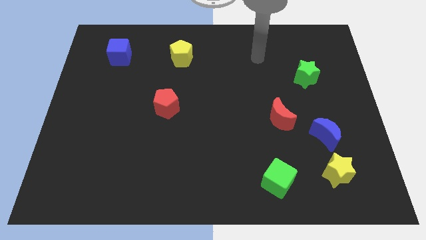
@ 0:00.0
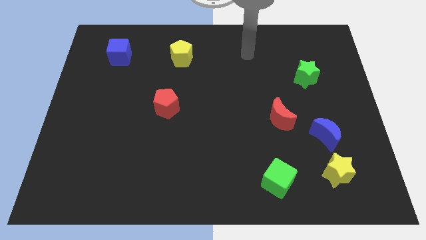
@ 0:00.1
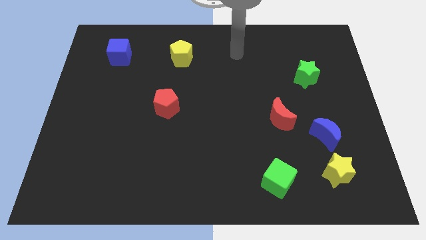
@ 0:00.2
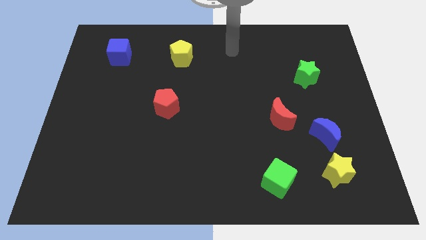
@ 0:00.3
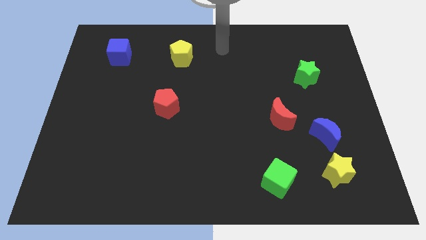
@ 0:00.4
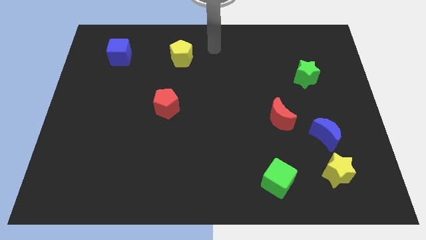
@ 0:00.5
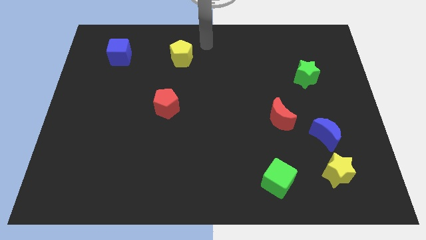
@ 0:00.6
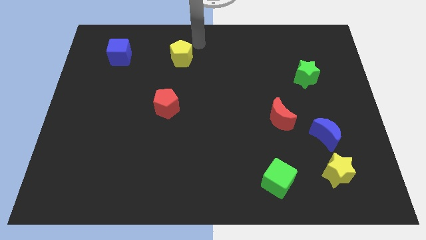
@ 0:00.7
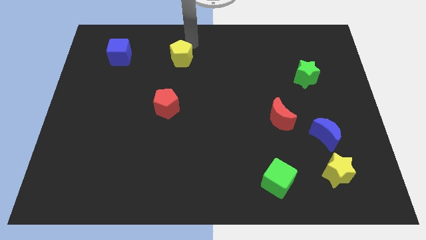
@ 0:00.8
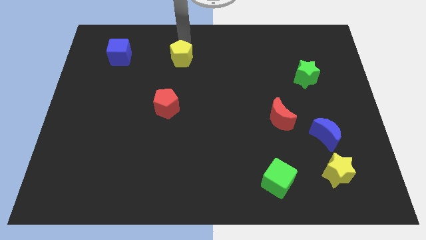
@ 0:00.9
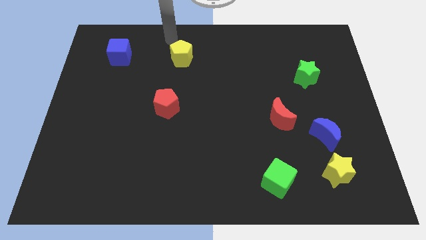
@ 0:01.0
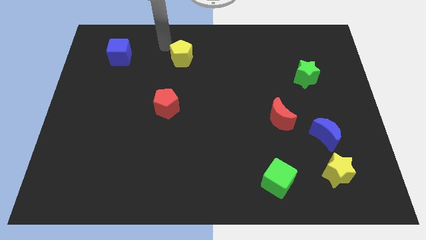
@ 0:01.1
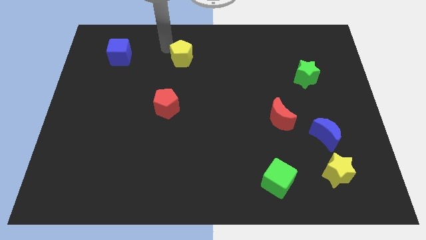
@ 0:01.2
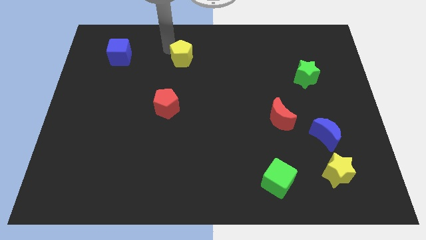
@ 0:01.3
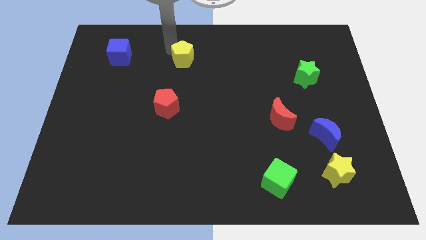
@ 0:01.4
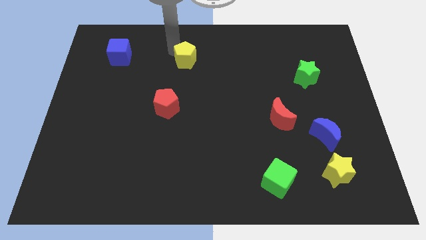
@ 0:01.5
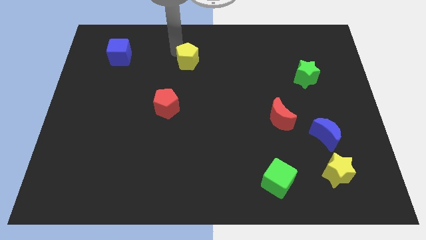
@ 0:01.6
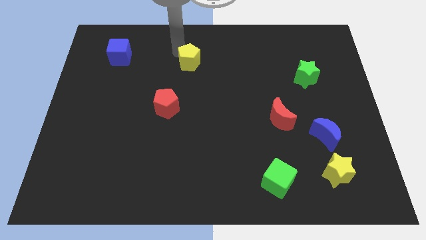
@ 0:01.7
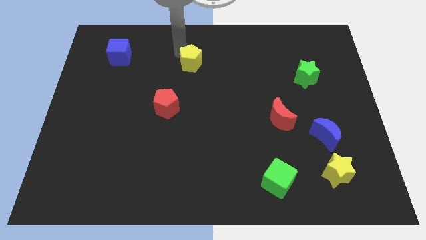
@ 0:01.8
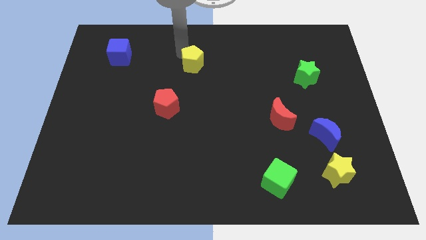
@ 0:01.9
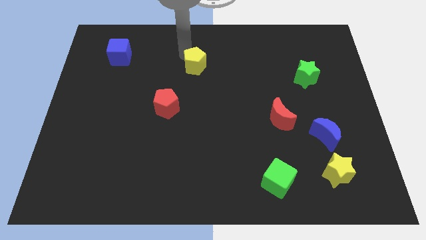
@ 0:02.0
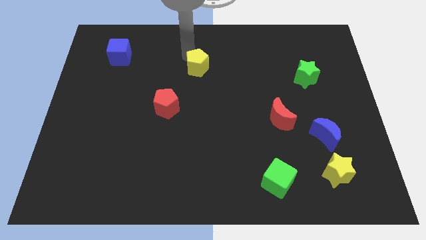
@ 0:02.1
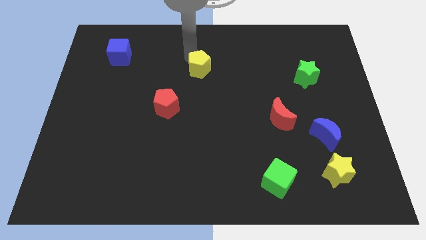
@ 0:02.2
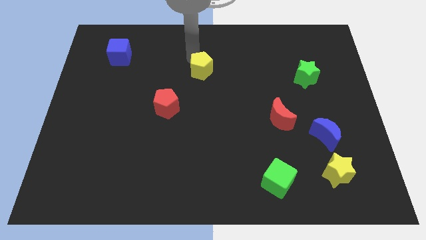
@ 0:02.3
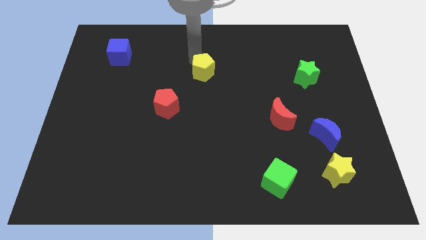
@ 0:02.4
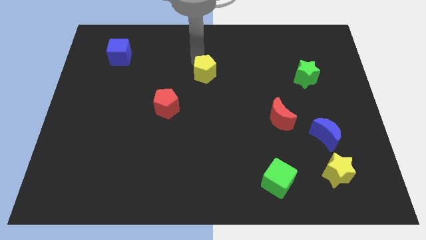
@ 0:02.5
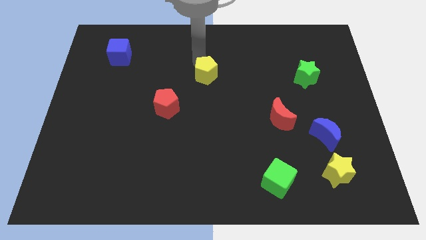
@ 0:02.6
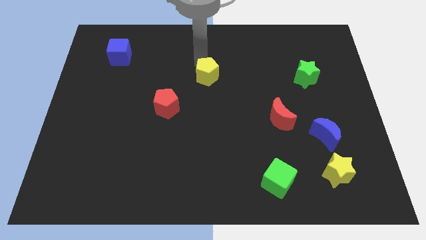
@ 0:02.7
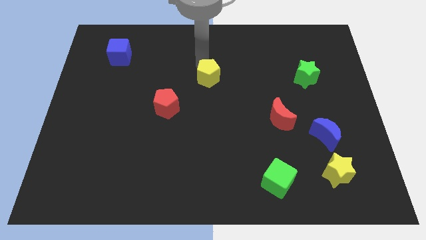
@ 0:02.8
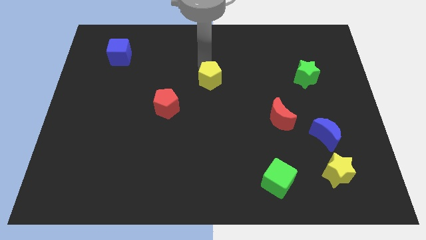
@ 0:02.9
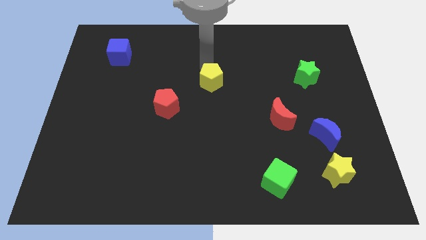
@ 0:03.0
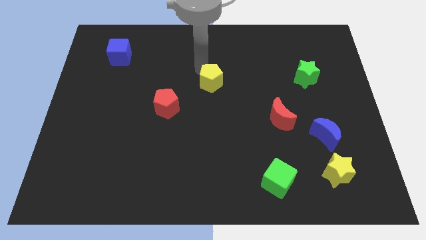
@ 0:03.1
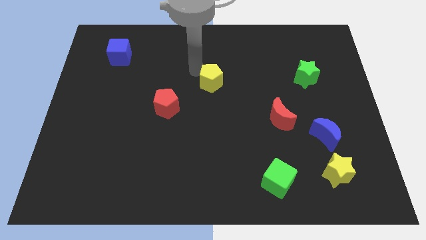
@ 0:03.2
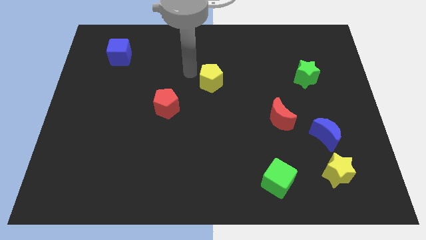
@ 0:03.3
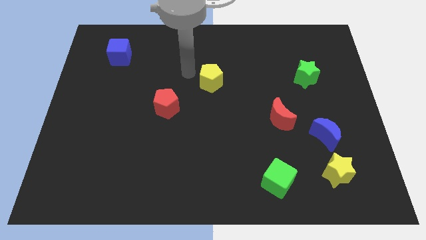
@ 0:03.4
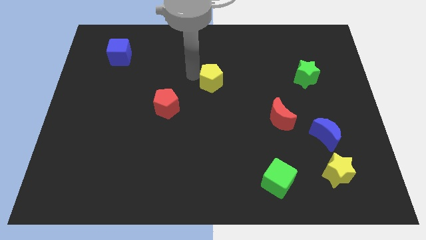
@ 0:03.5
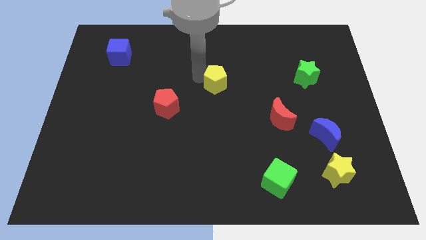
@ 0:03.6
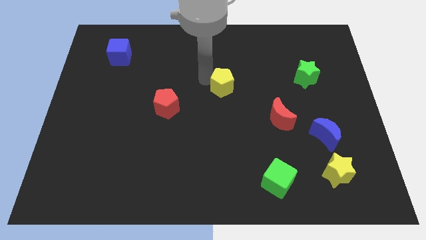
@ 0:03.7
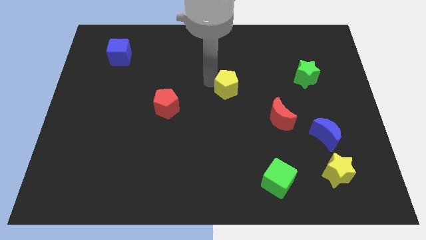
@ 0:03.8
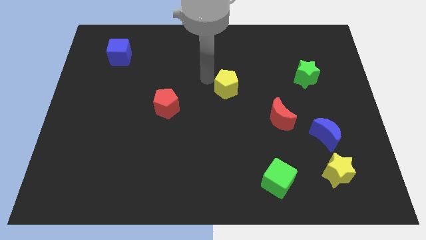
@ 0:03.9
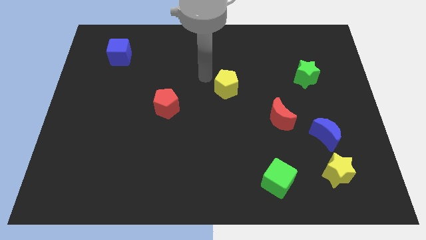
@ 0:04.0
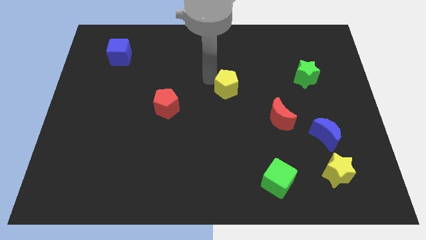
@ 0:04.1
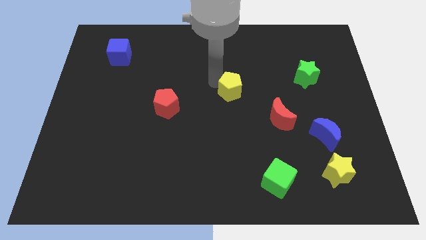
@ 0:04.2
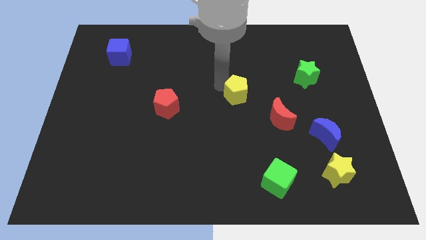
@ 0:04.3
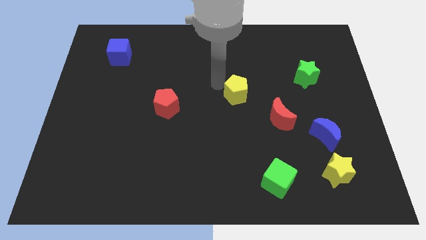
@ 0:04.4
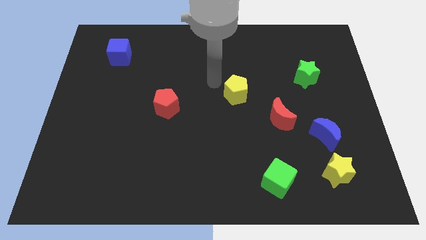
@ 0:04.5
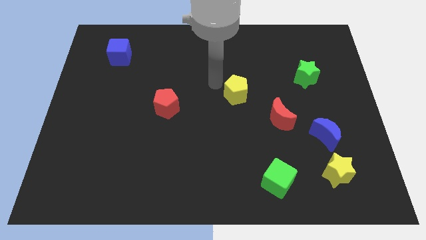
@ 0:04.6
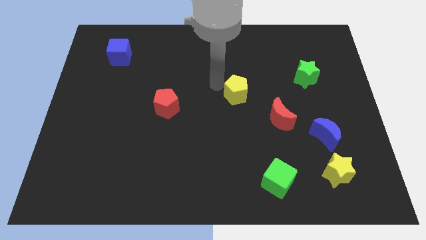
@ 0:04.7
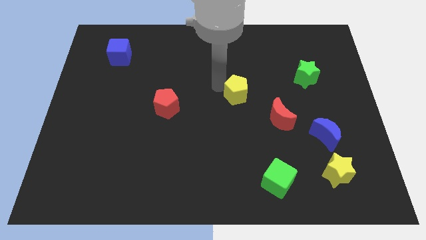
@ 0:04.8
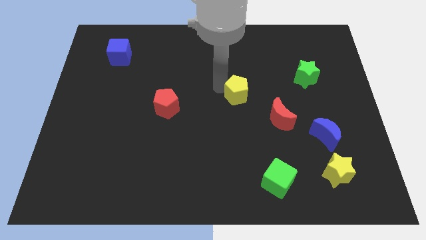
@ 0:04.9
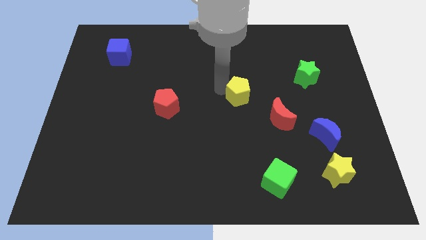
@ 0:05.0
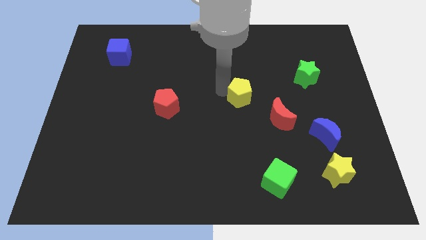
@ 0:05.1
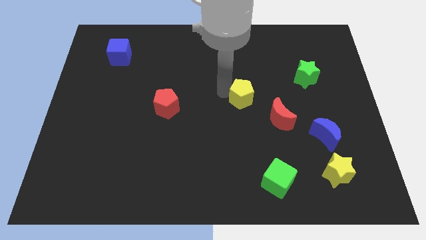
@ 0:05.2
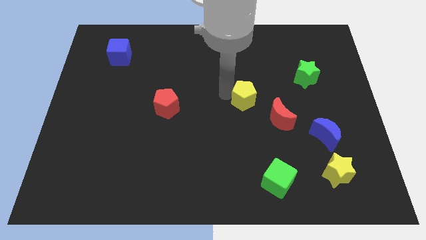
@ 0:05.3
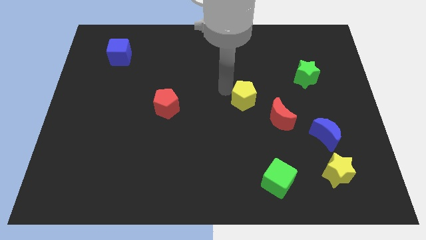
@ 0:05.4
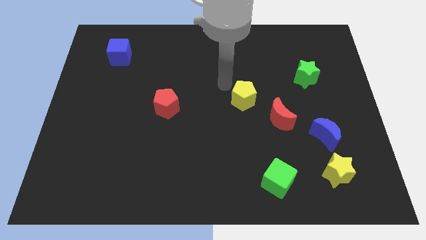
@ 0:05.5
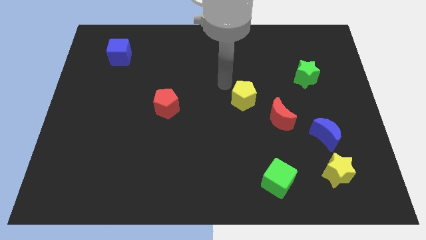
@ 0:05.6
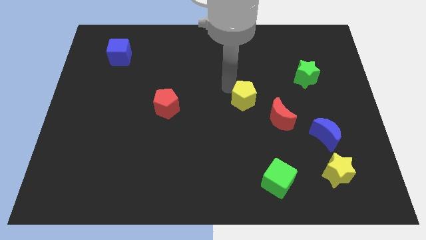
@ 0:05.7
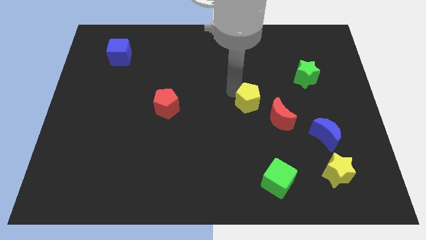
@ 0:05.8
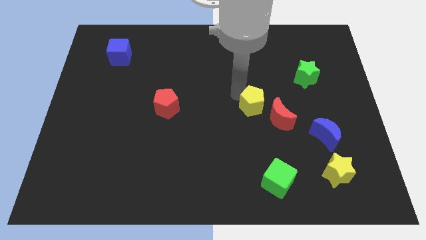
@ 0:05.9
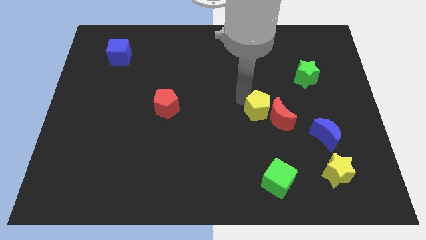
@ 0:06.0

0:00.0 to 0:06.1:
put the yellow pentagon to the red moon
